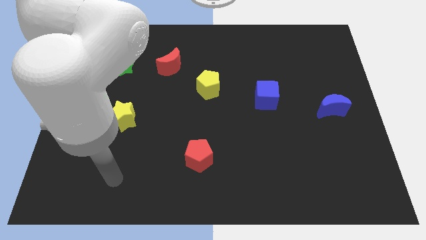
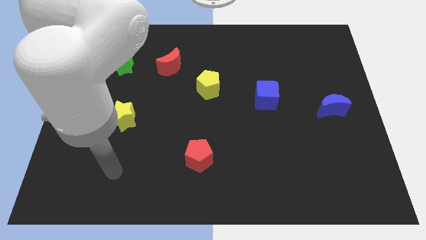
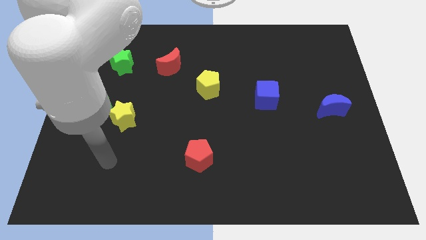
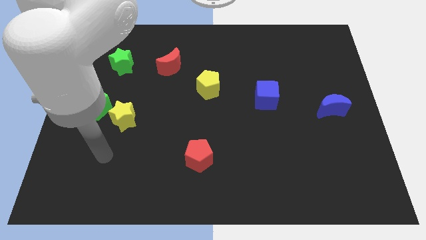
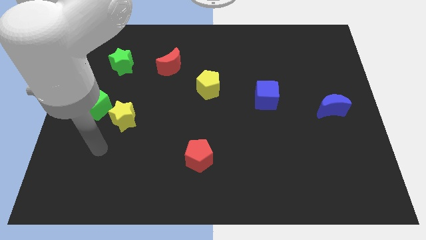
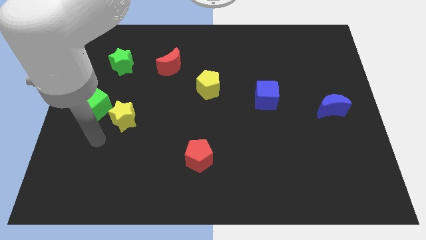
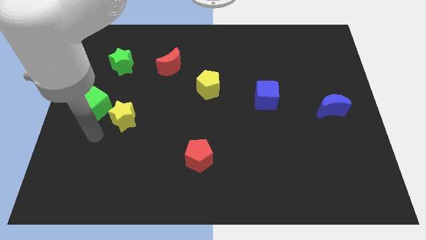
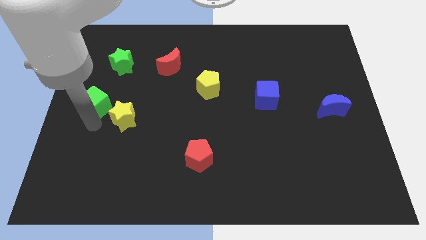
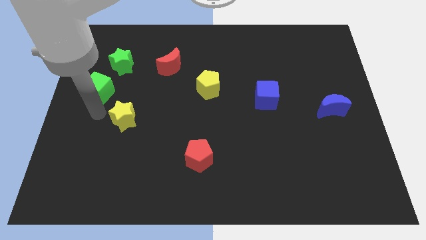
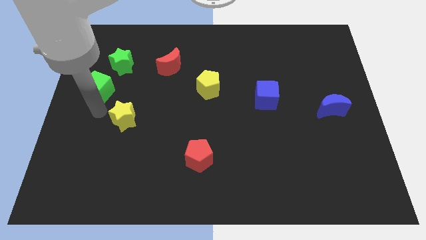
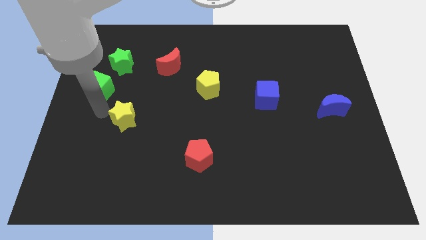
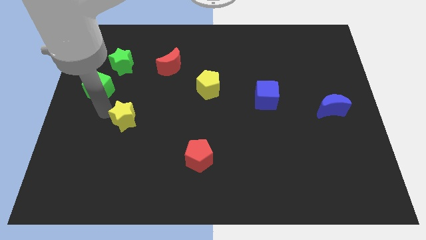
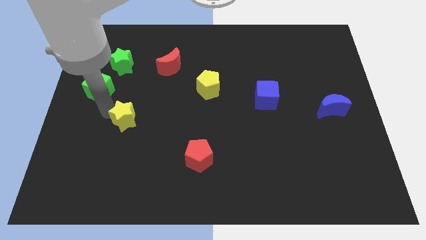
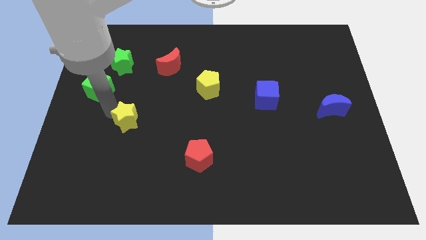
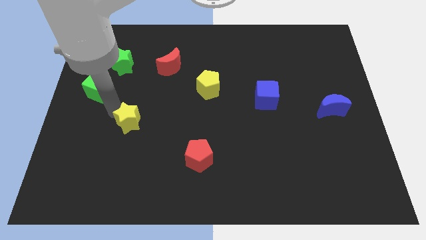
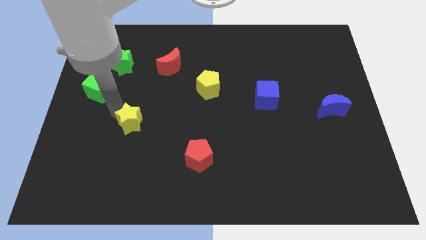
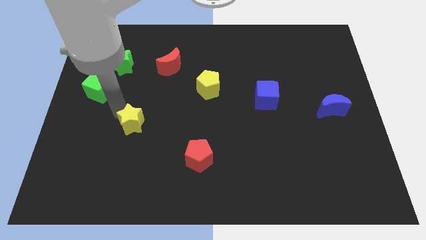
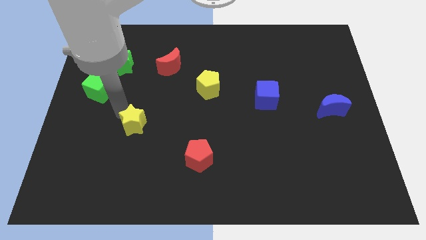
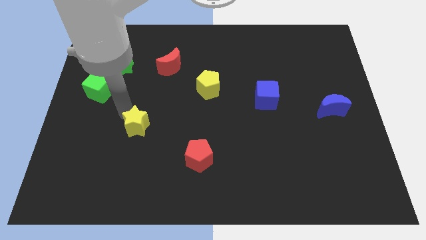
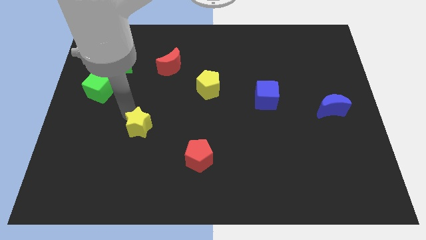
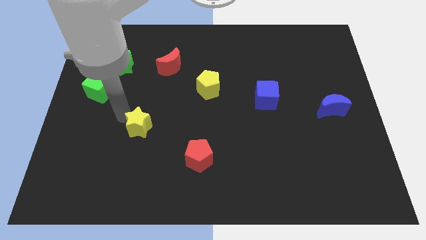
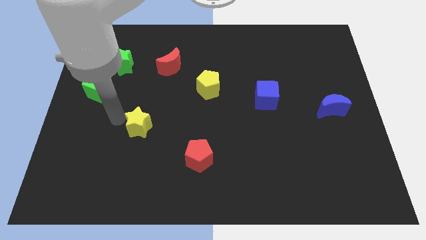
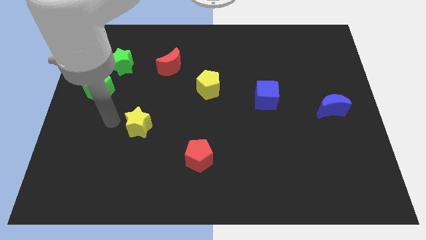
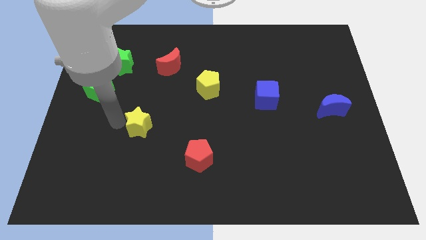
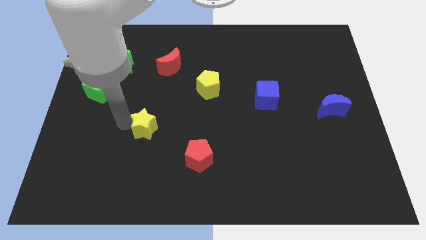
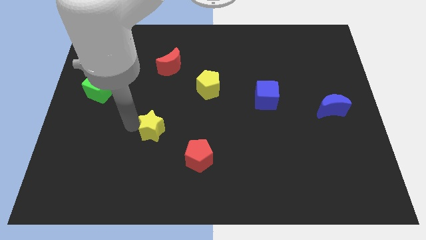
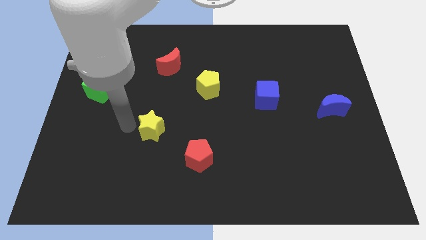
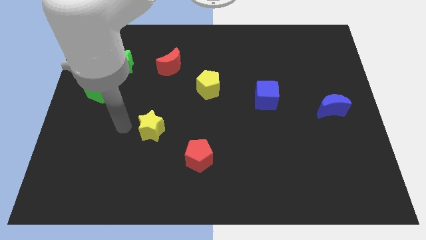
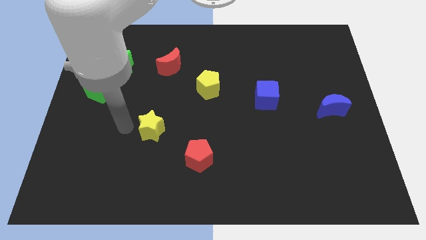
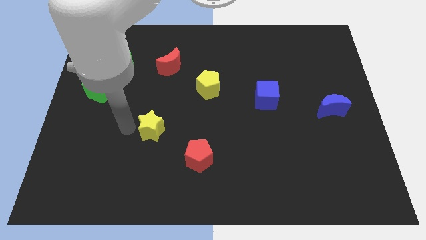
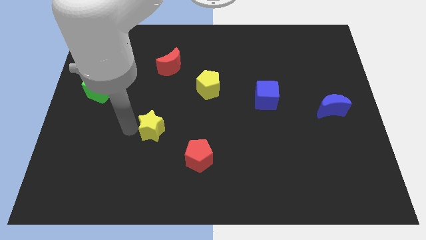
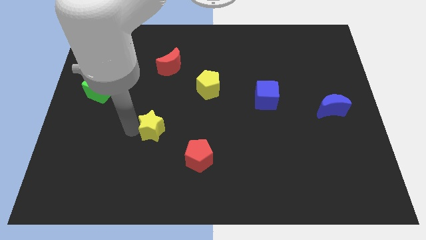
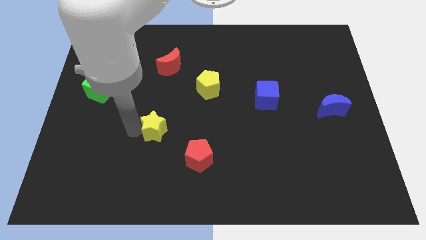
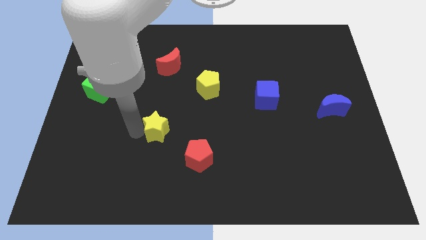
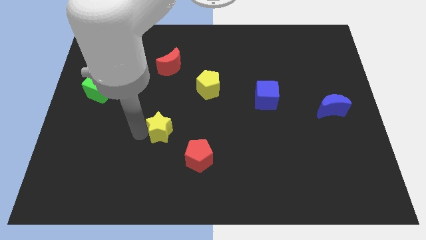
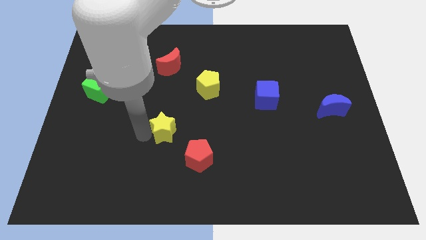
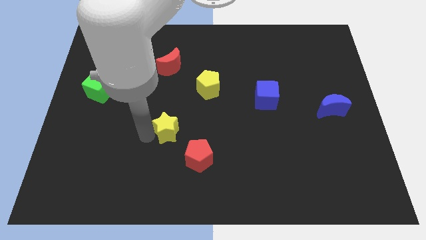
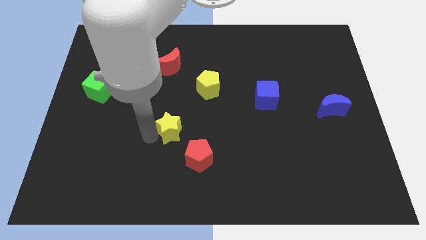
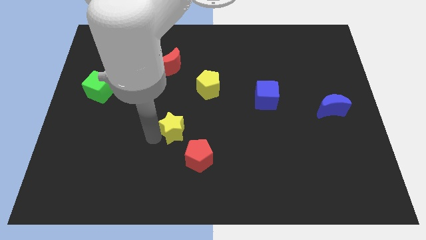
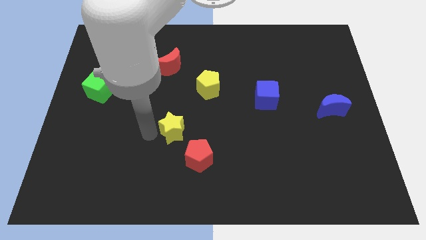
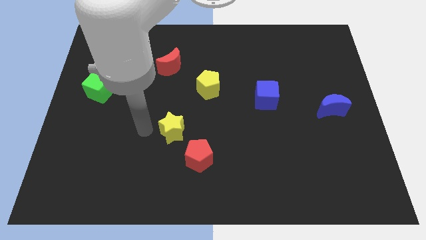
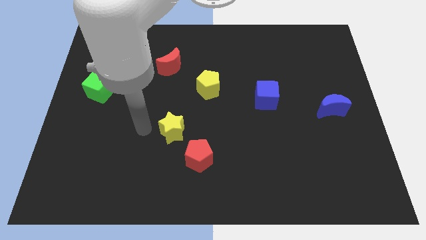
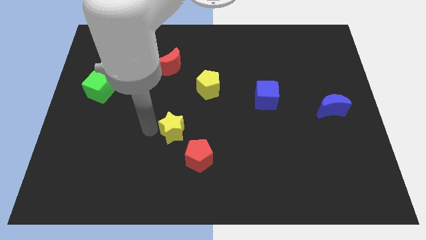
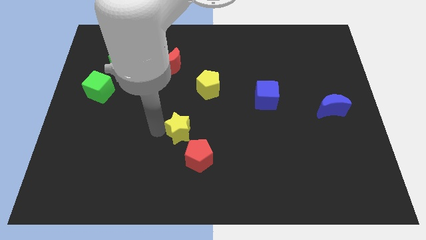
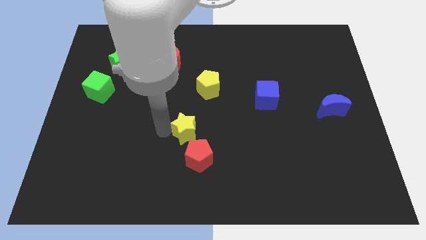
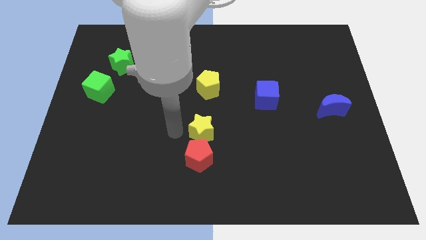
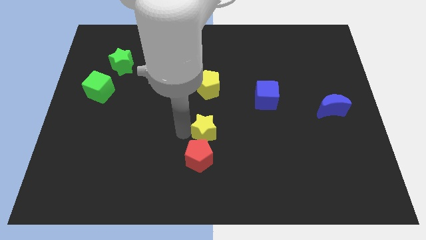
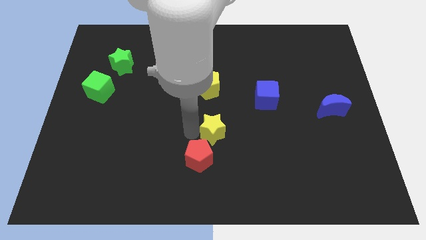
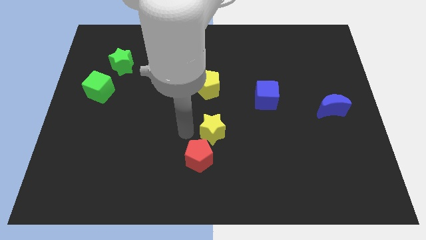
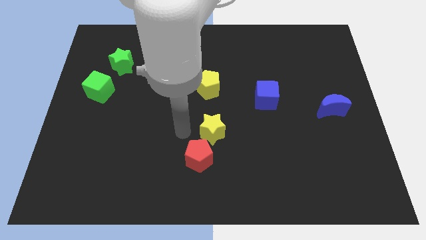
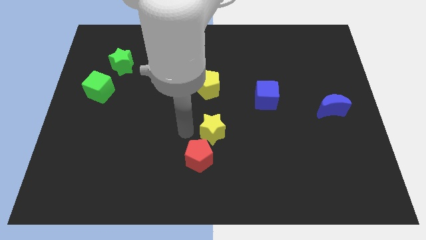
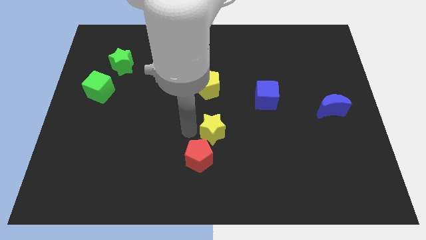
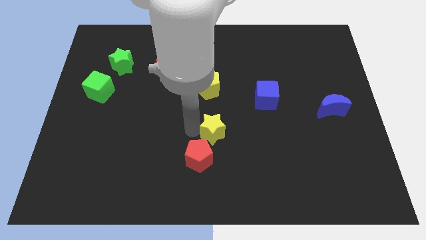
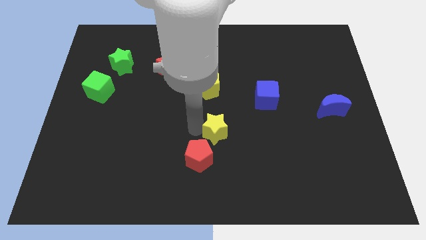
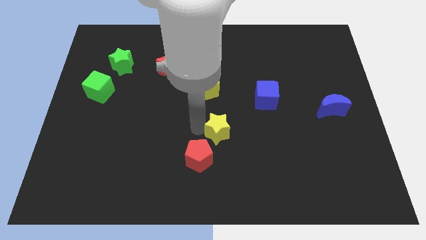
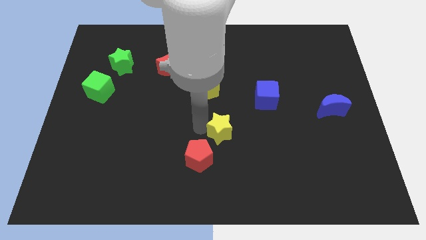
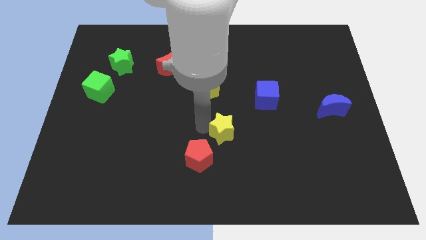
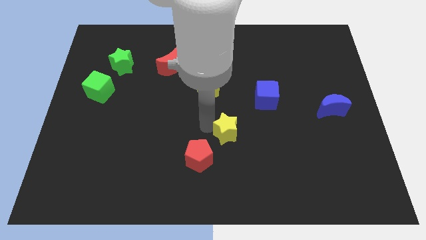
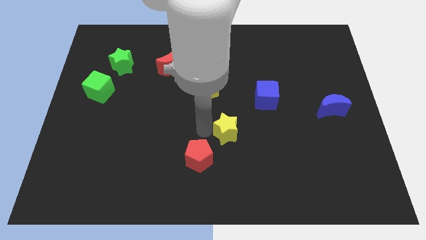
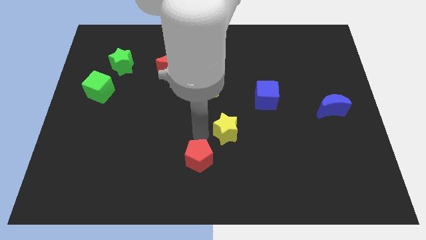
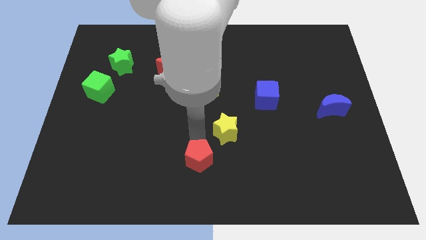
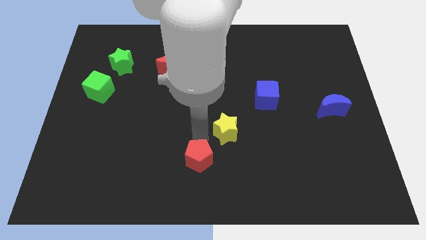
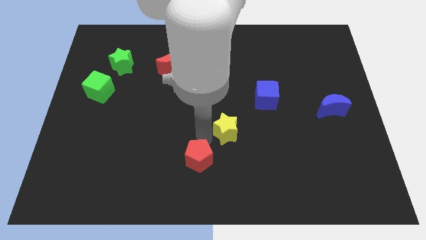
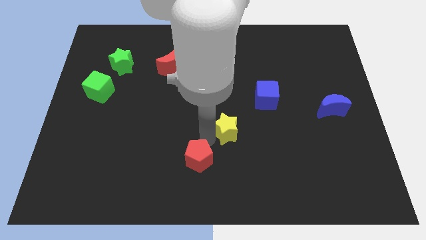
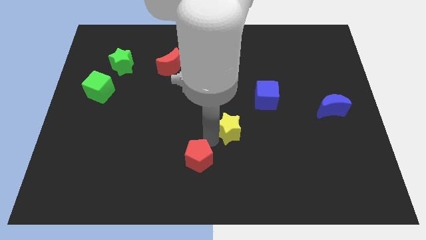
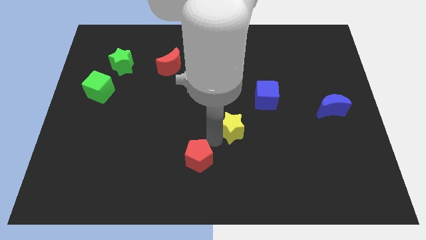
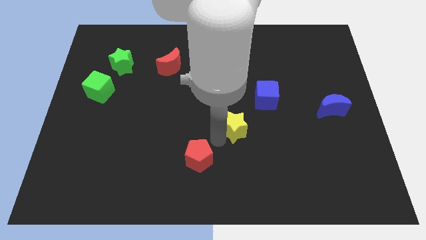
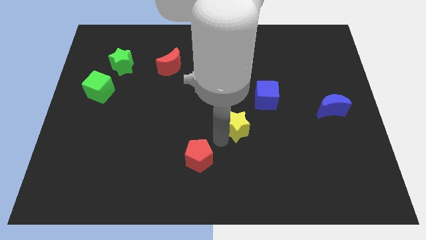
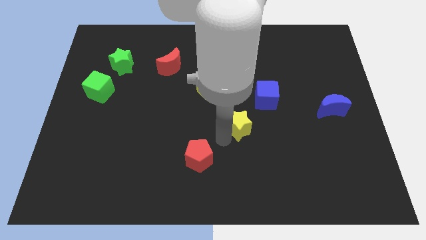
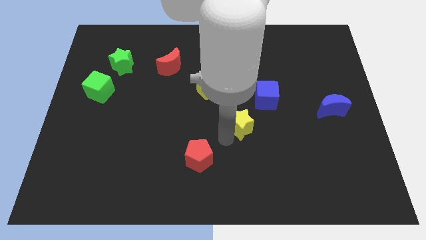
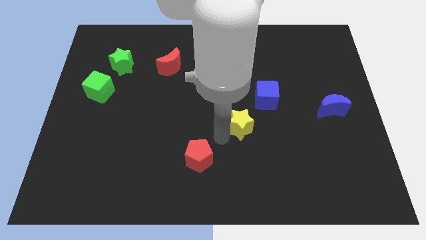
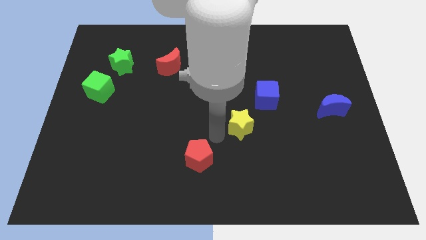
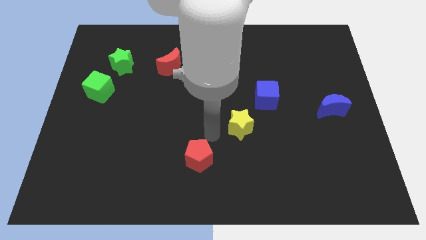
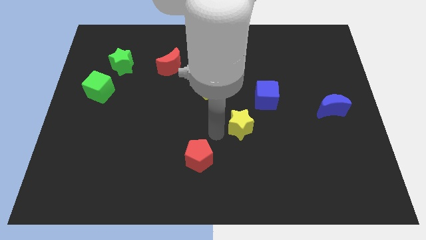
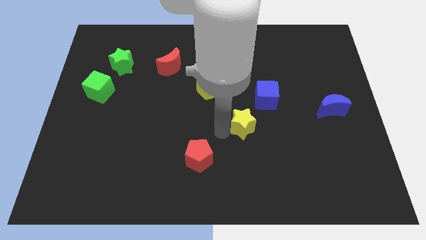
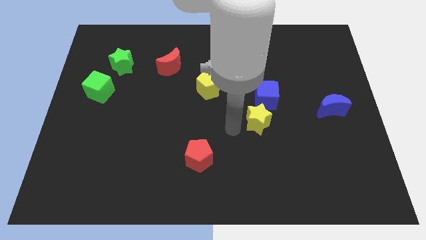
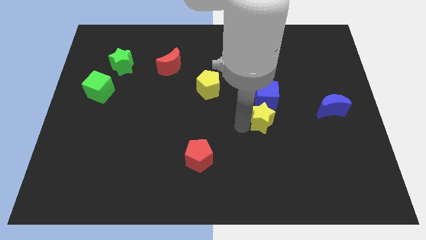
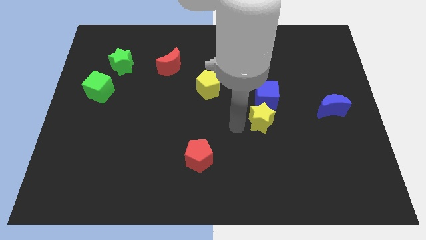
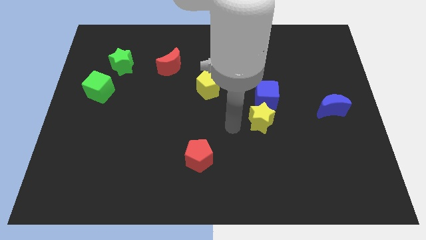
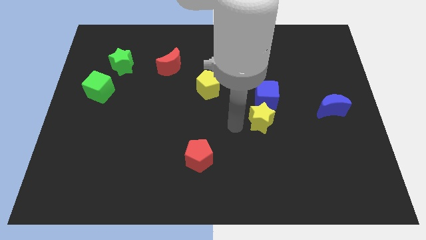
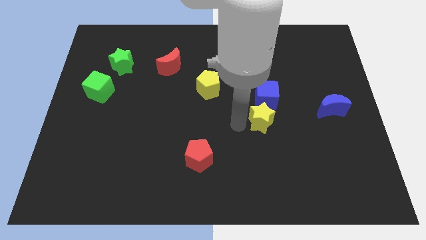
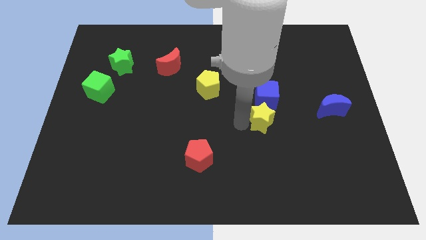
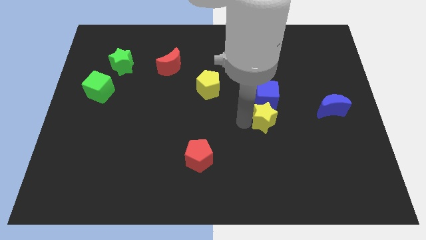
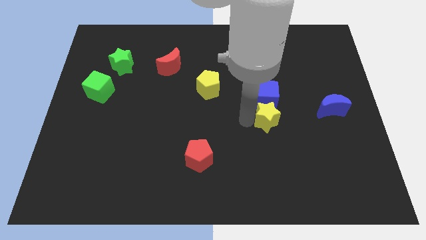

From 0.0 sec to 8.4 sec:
push the yellow star to the bottom right of the blue cube
